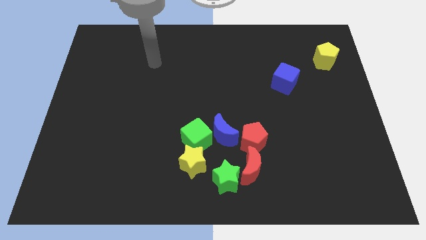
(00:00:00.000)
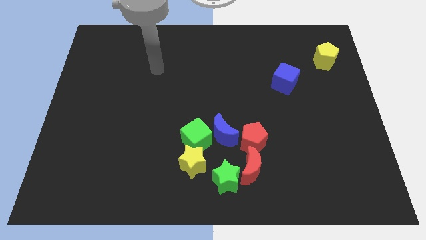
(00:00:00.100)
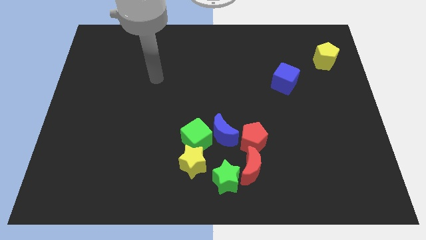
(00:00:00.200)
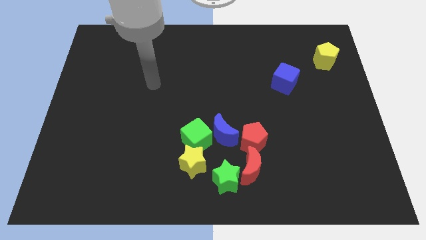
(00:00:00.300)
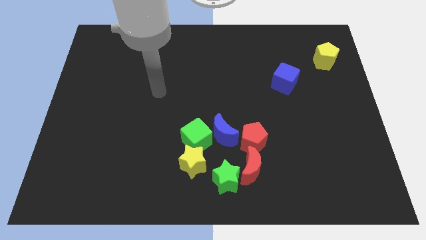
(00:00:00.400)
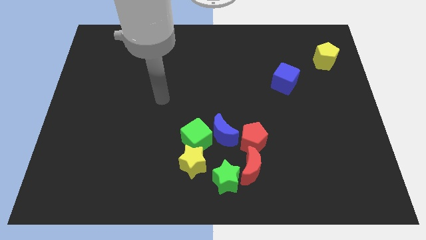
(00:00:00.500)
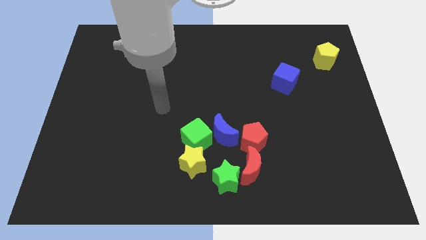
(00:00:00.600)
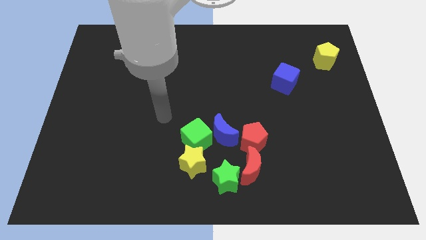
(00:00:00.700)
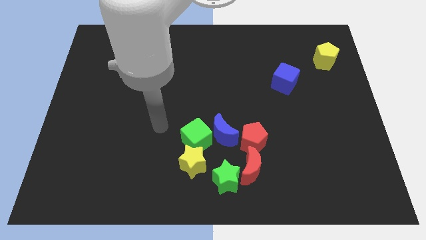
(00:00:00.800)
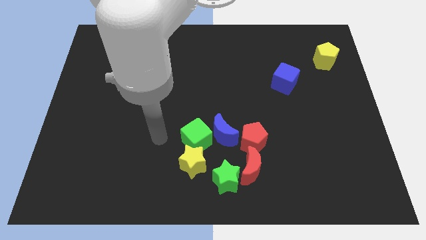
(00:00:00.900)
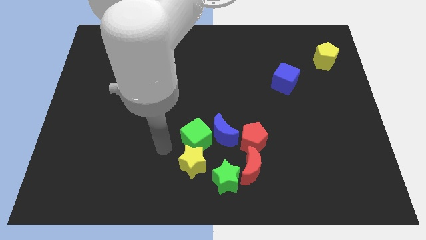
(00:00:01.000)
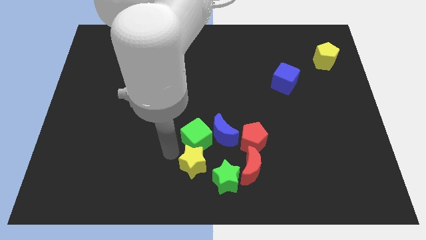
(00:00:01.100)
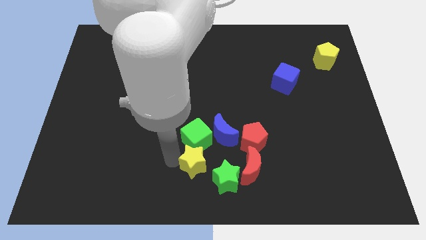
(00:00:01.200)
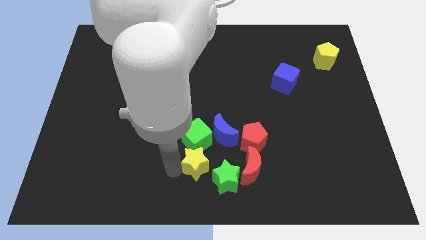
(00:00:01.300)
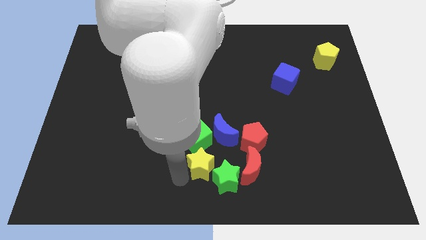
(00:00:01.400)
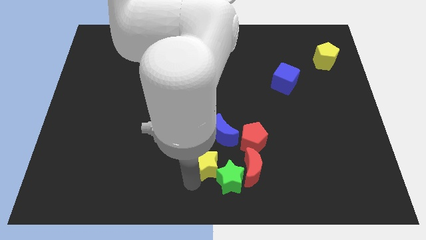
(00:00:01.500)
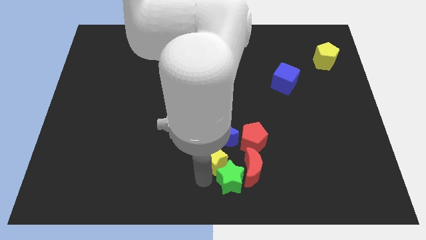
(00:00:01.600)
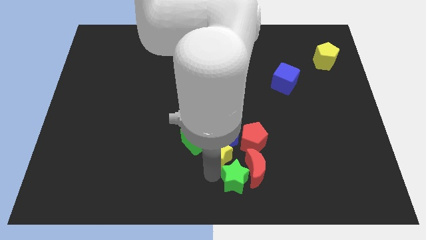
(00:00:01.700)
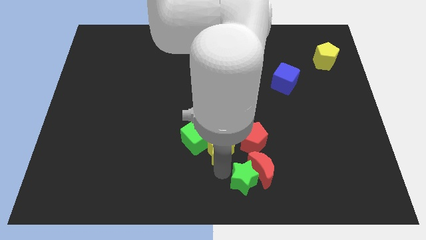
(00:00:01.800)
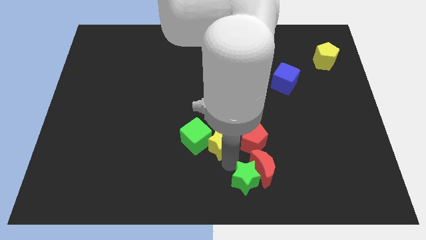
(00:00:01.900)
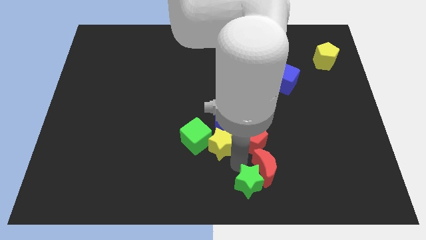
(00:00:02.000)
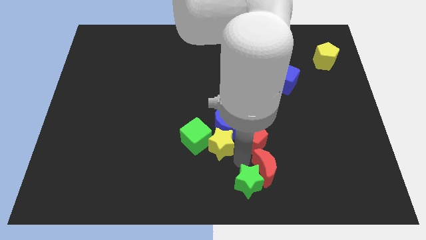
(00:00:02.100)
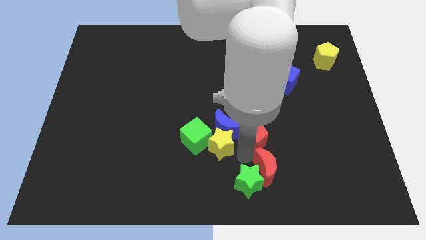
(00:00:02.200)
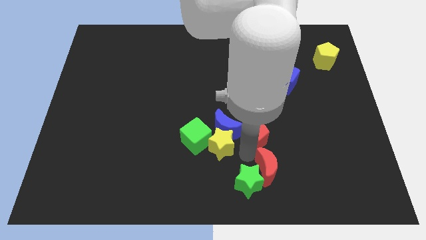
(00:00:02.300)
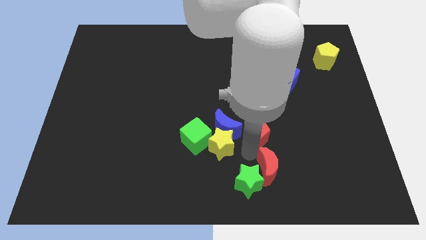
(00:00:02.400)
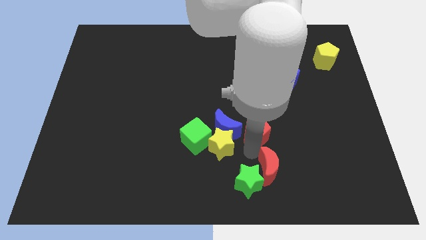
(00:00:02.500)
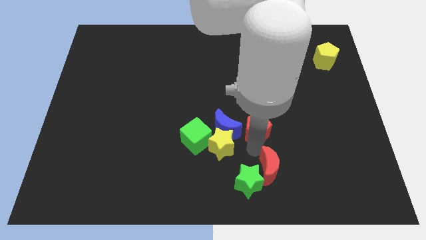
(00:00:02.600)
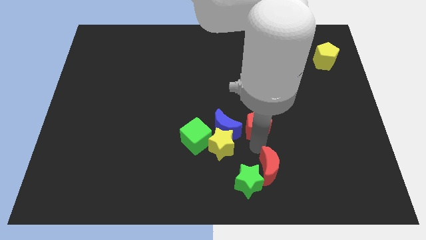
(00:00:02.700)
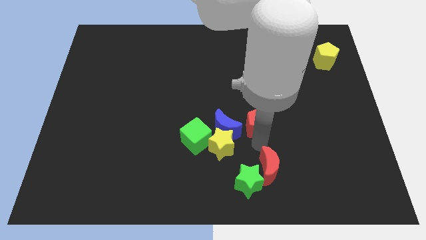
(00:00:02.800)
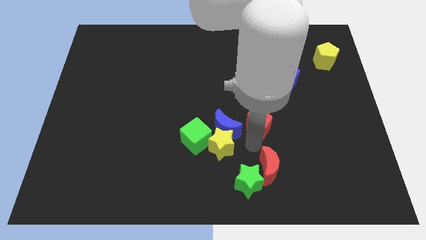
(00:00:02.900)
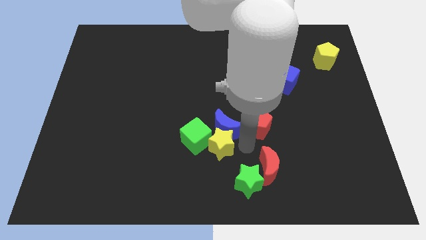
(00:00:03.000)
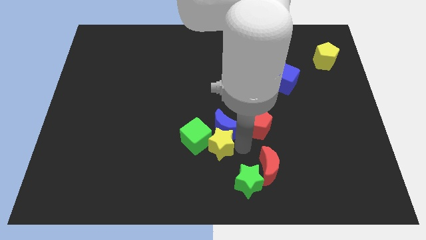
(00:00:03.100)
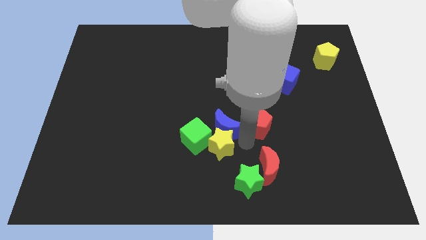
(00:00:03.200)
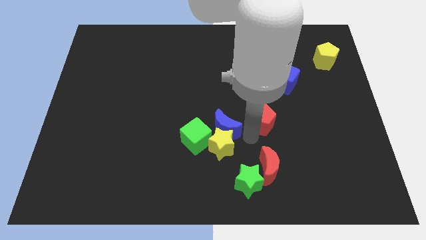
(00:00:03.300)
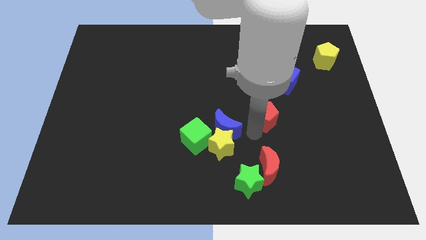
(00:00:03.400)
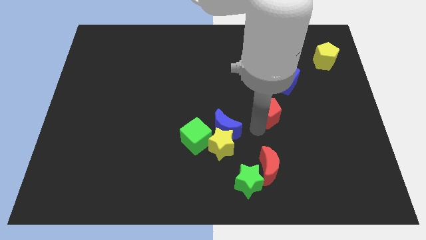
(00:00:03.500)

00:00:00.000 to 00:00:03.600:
slightly slide the red pentagon up and then right

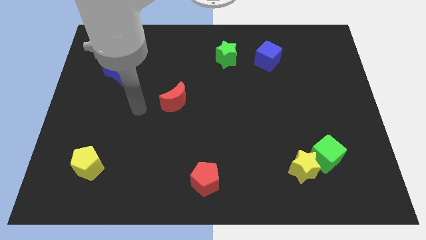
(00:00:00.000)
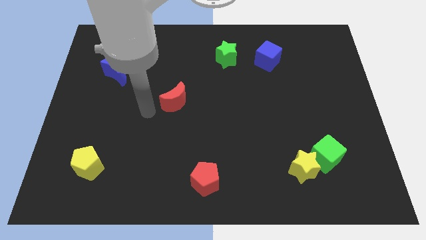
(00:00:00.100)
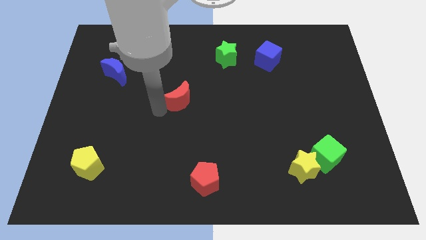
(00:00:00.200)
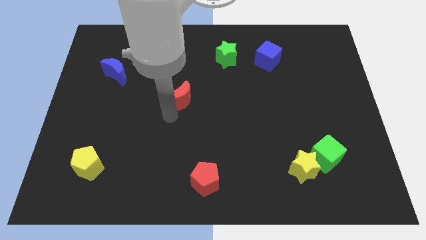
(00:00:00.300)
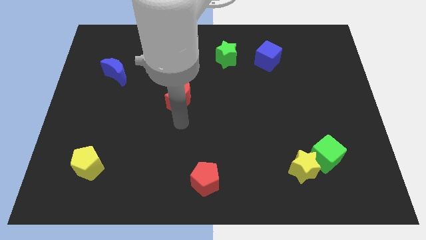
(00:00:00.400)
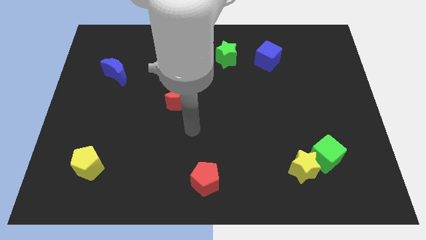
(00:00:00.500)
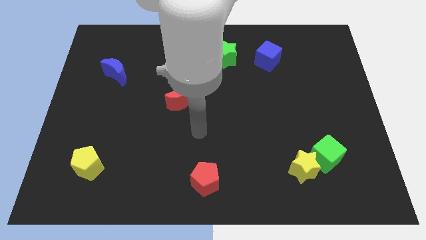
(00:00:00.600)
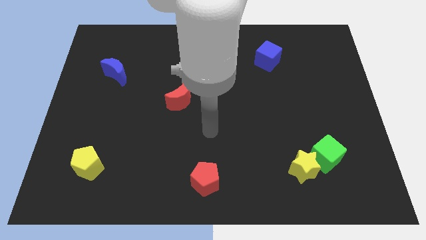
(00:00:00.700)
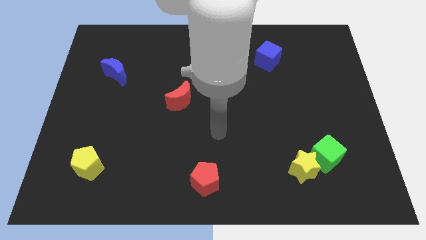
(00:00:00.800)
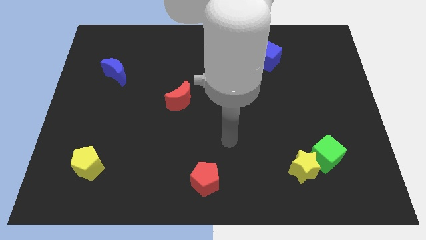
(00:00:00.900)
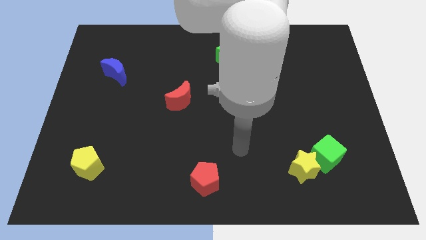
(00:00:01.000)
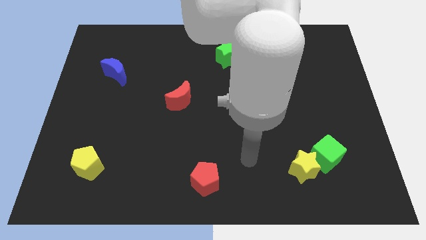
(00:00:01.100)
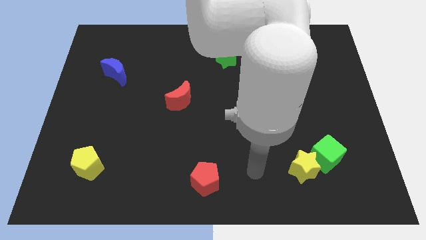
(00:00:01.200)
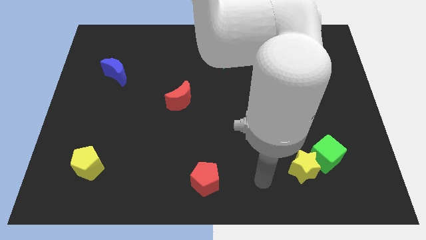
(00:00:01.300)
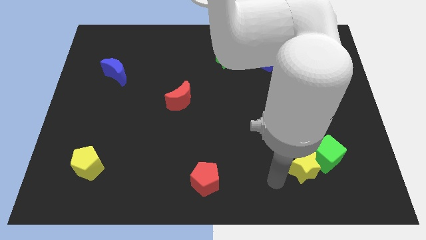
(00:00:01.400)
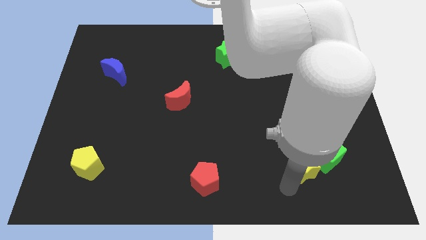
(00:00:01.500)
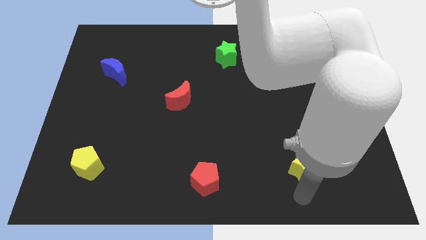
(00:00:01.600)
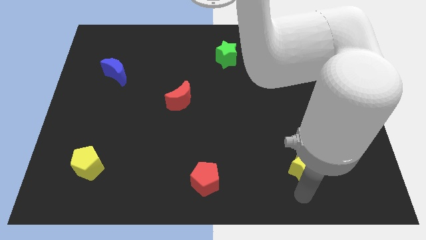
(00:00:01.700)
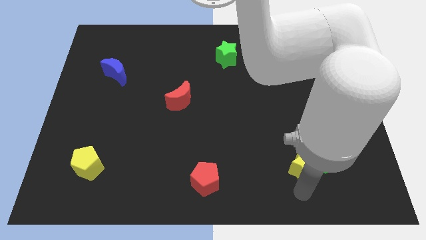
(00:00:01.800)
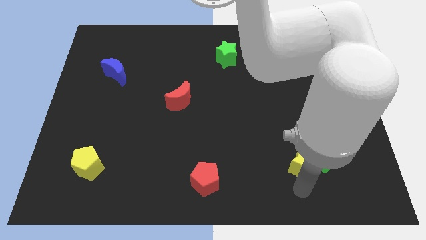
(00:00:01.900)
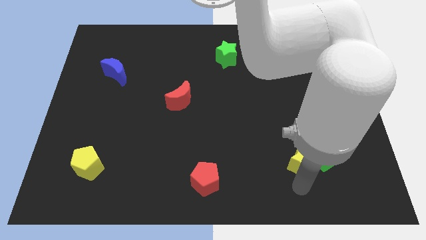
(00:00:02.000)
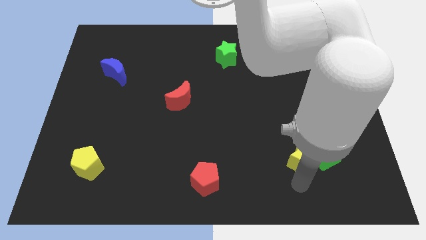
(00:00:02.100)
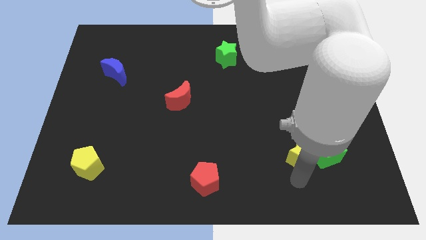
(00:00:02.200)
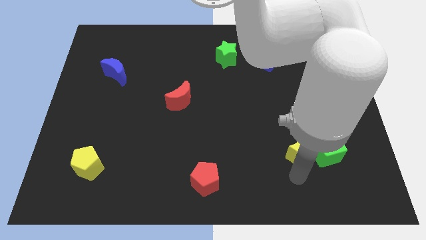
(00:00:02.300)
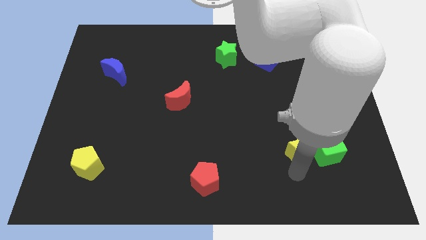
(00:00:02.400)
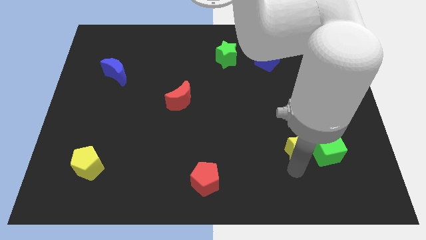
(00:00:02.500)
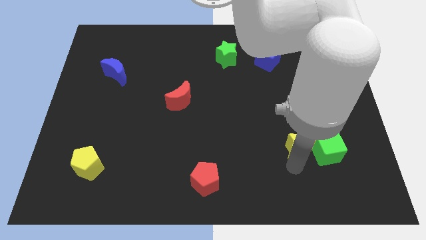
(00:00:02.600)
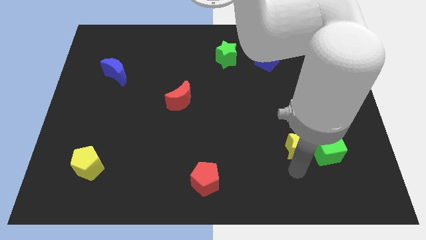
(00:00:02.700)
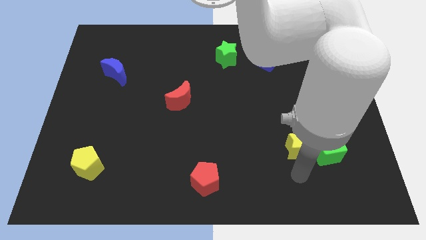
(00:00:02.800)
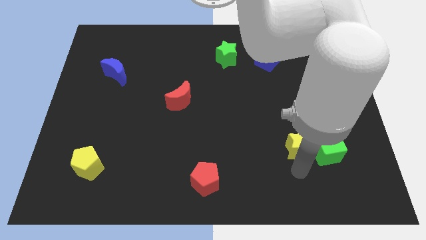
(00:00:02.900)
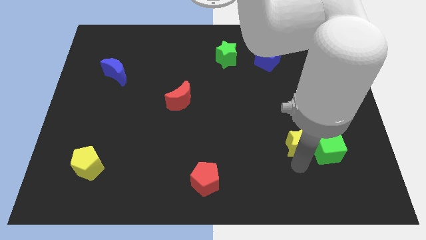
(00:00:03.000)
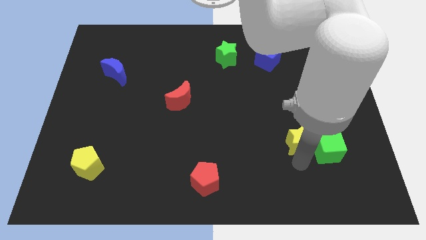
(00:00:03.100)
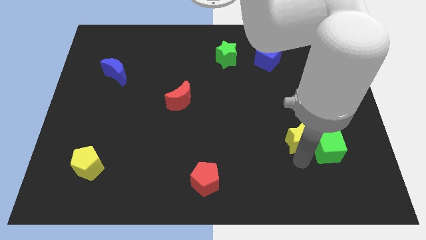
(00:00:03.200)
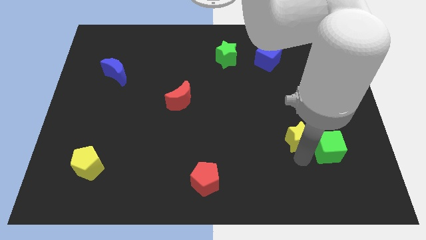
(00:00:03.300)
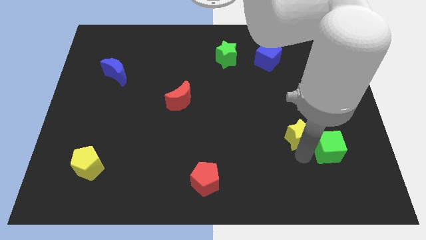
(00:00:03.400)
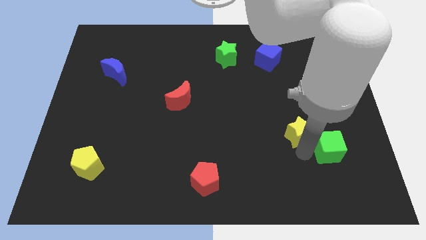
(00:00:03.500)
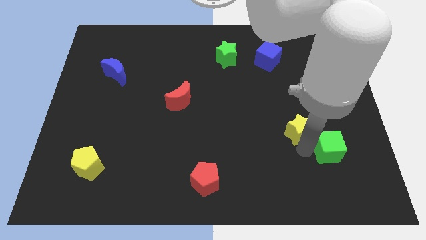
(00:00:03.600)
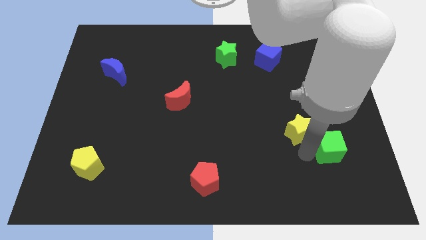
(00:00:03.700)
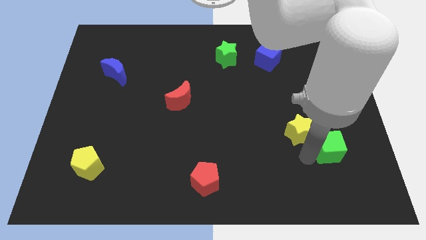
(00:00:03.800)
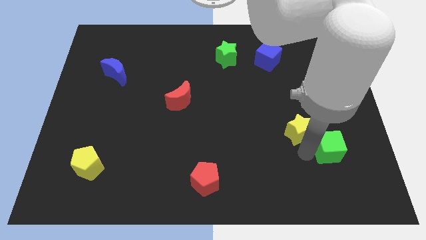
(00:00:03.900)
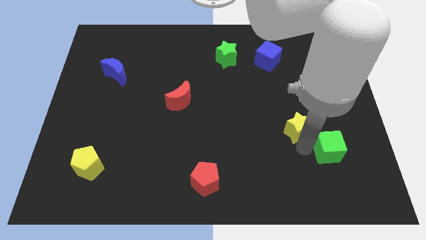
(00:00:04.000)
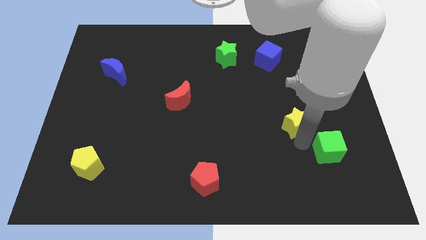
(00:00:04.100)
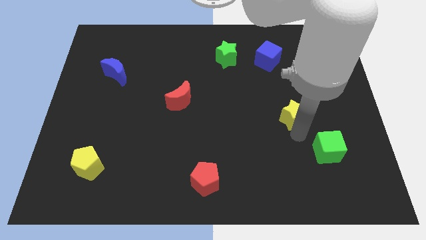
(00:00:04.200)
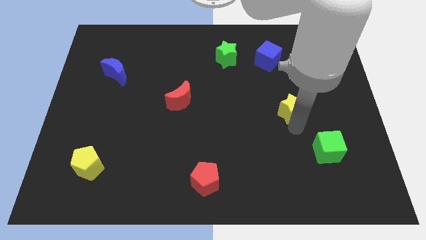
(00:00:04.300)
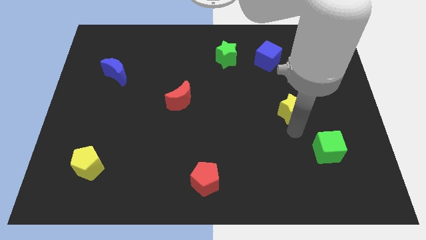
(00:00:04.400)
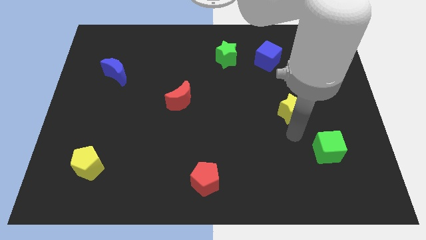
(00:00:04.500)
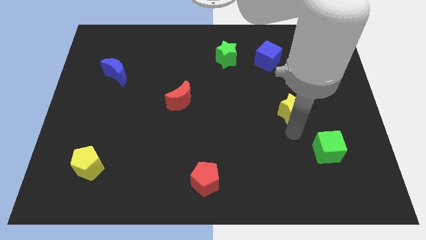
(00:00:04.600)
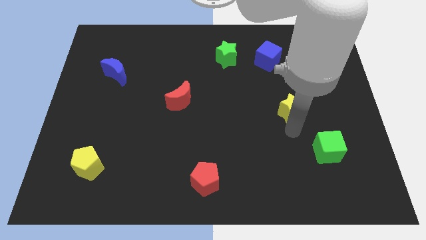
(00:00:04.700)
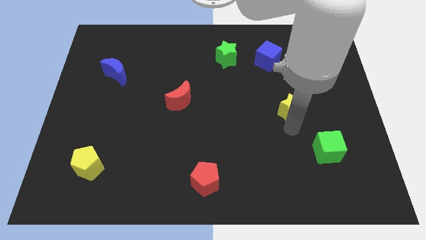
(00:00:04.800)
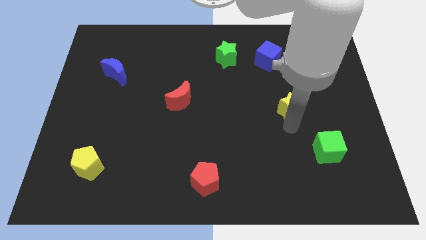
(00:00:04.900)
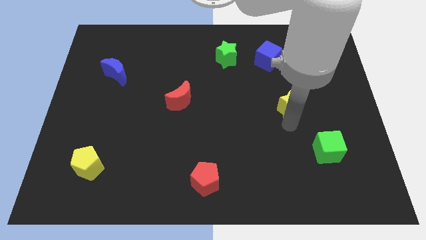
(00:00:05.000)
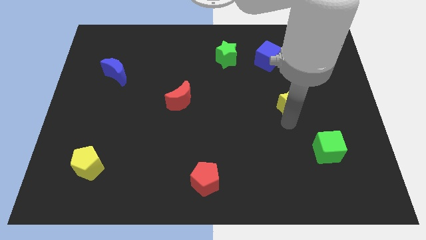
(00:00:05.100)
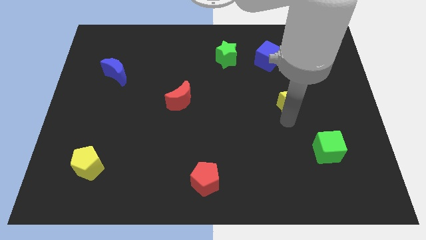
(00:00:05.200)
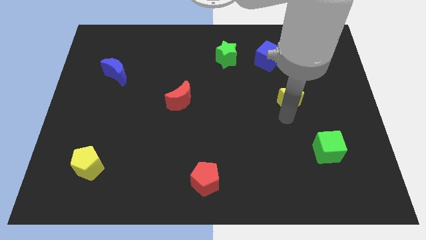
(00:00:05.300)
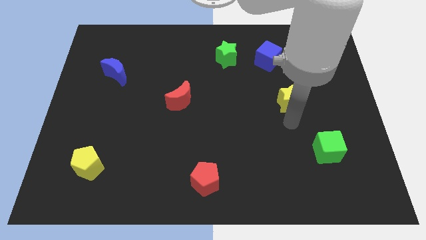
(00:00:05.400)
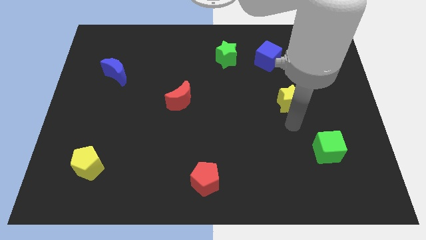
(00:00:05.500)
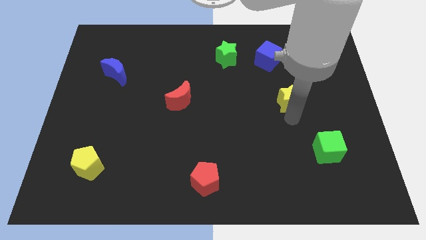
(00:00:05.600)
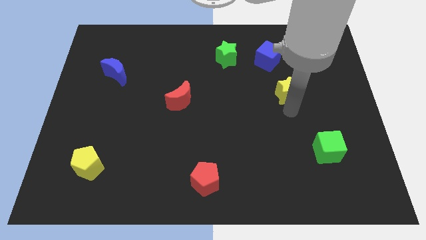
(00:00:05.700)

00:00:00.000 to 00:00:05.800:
move the yellow star up
